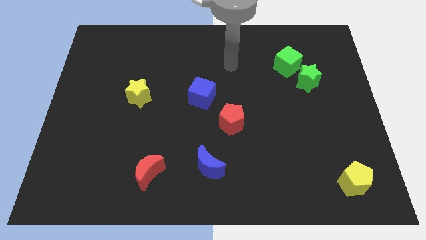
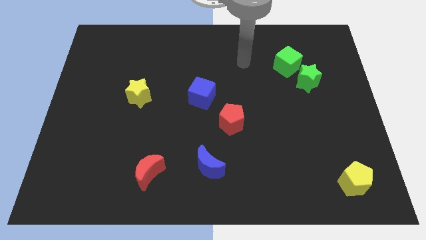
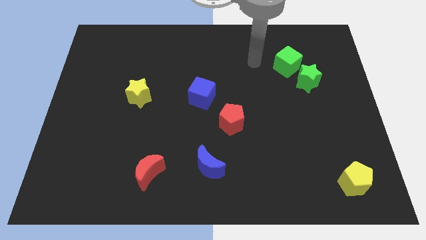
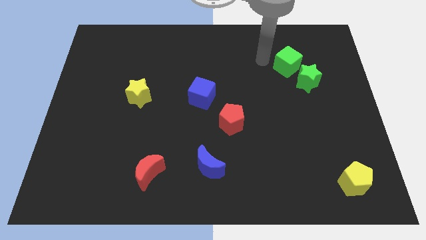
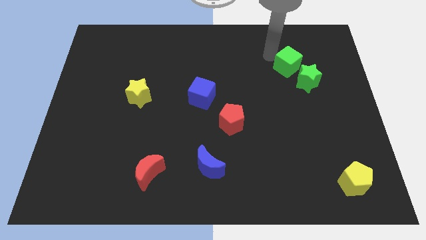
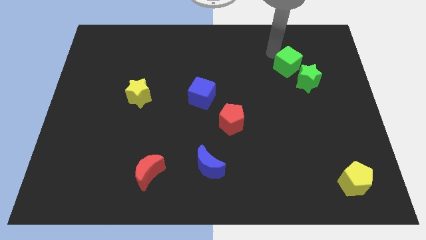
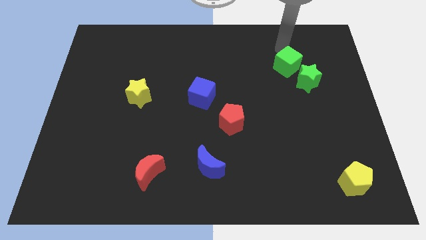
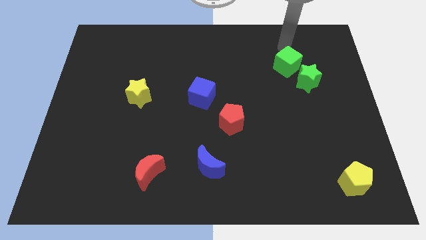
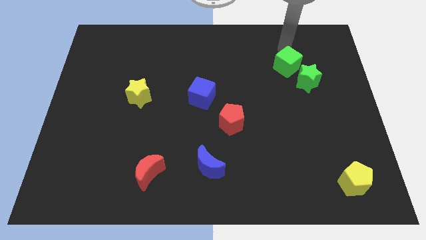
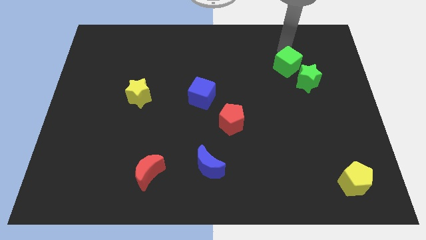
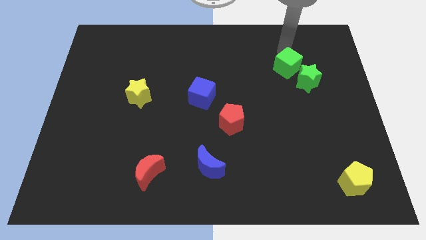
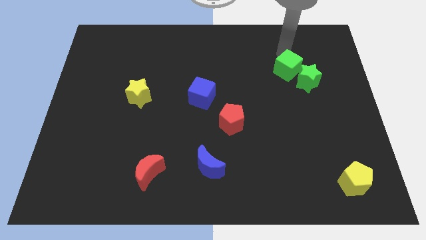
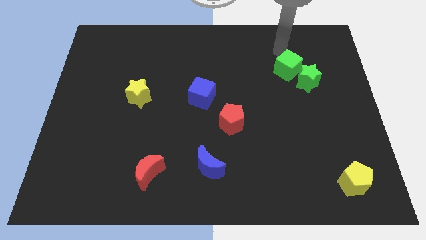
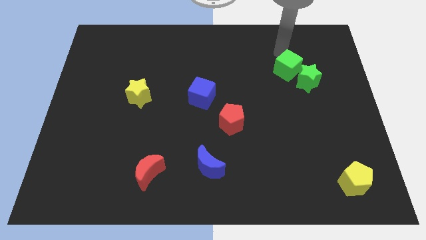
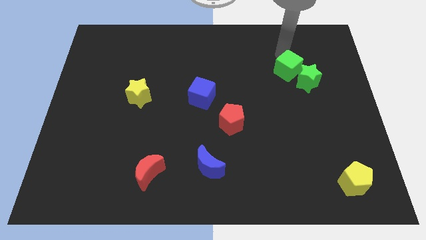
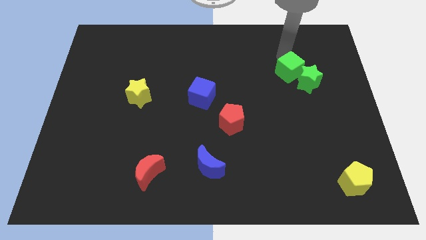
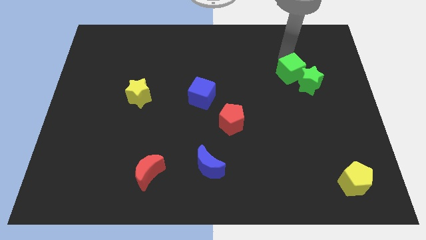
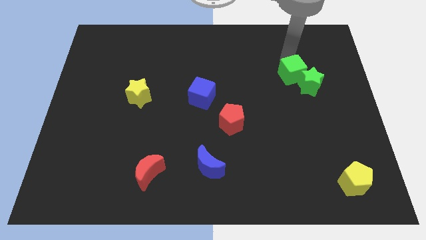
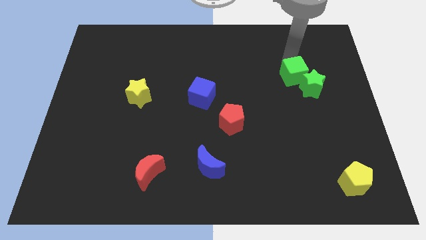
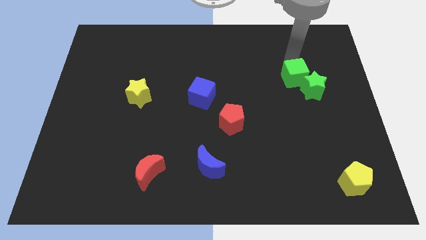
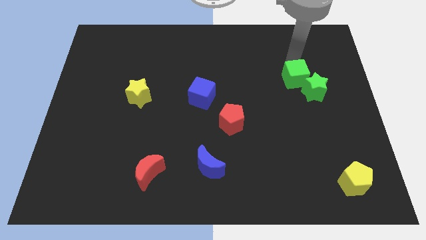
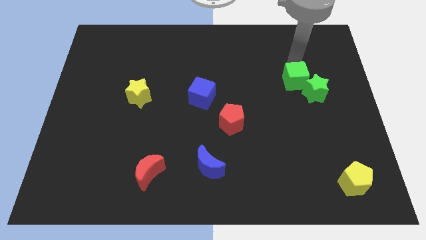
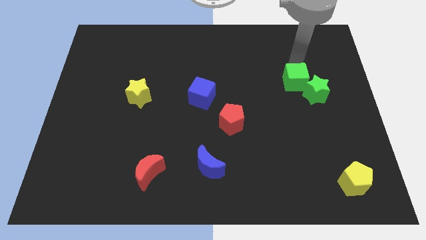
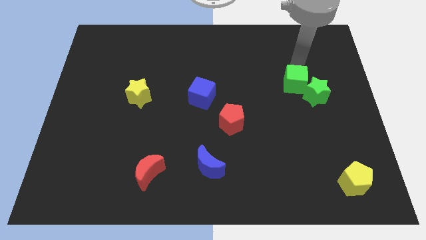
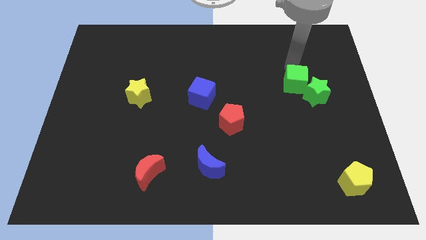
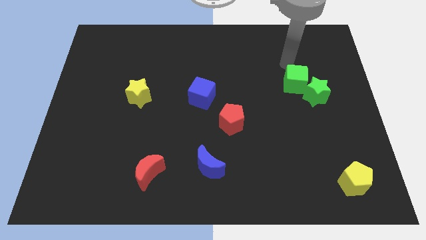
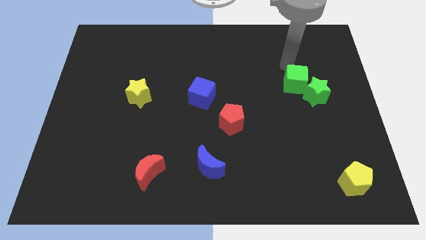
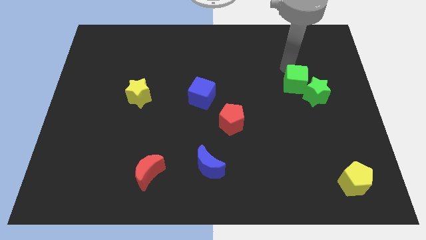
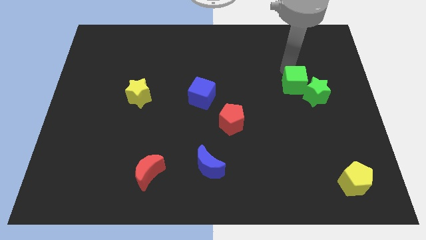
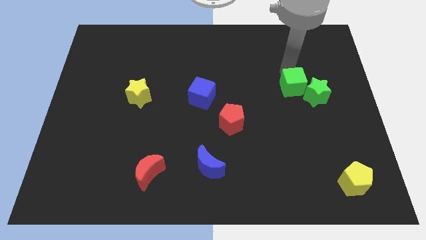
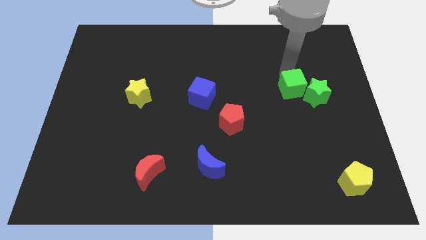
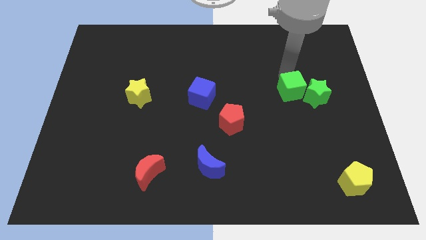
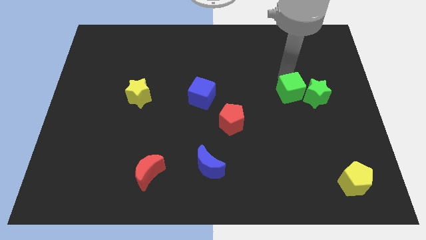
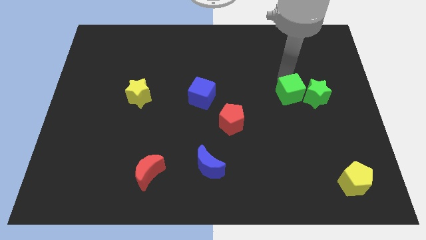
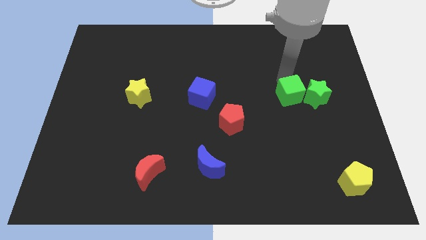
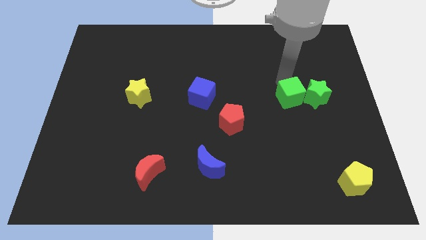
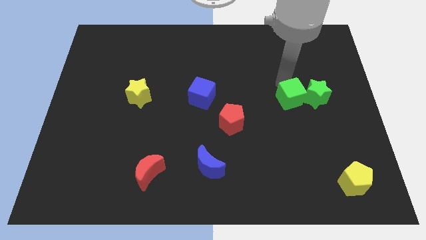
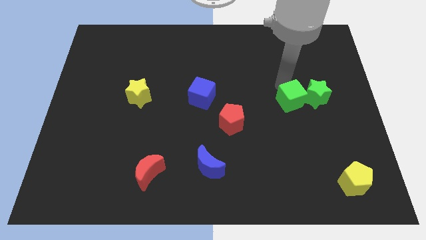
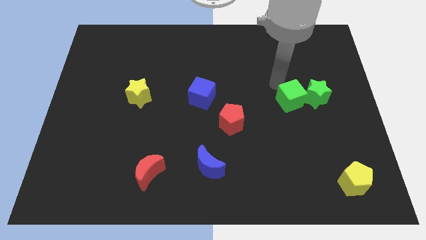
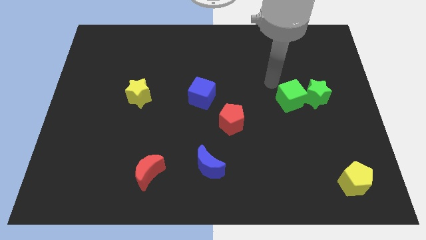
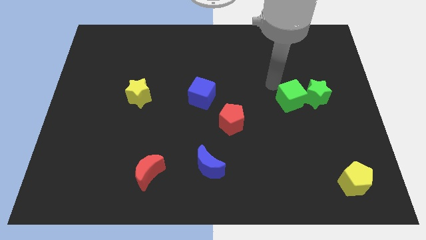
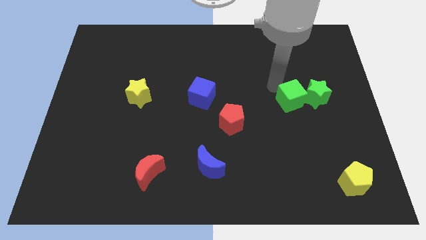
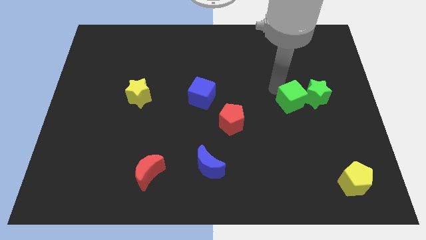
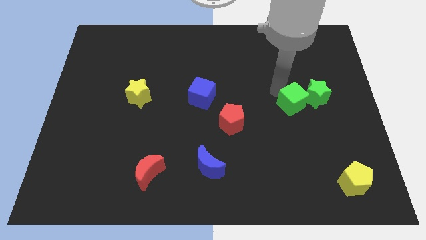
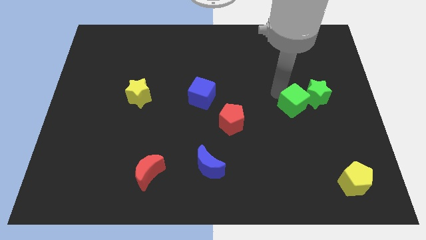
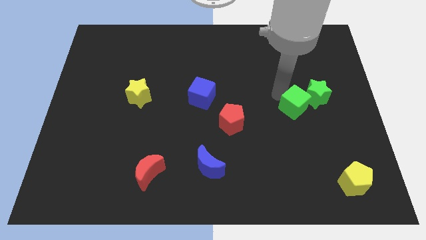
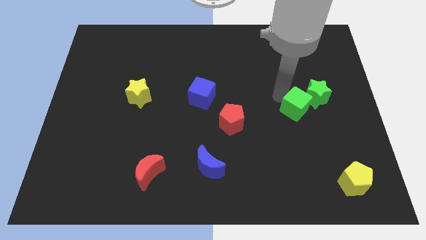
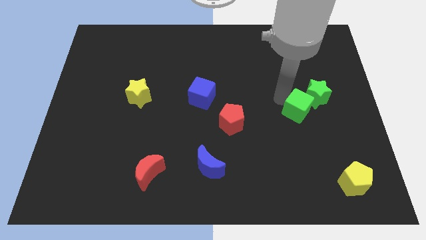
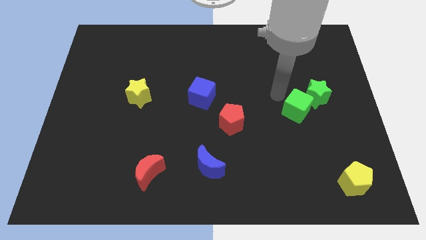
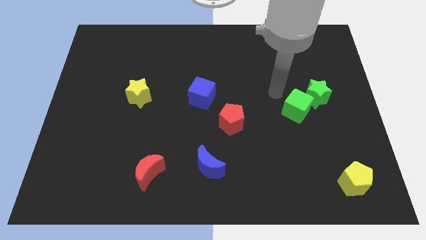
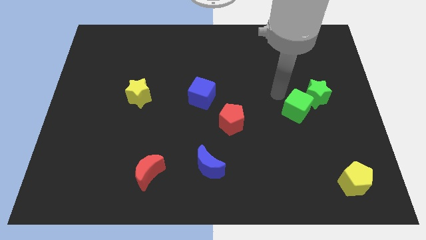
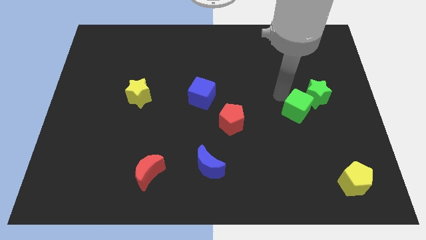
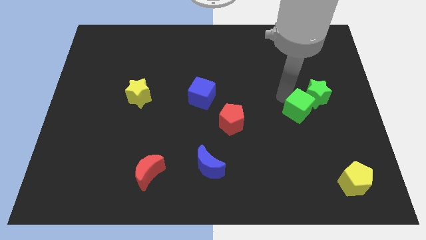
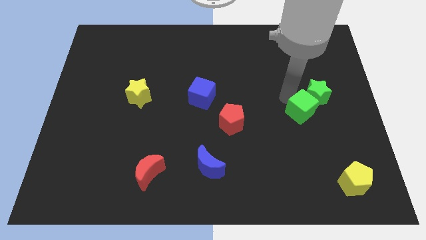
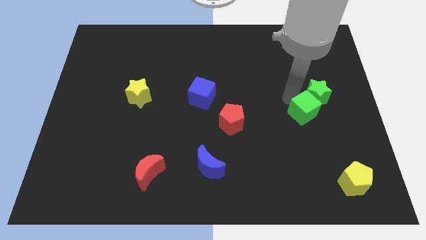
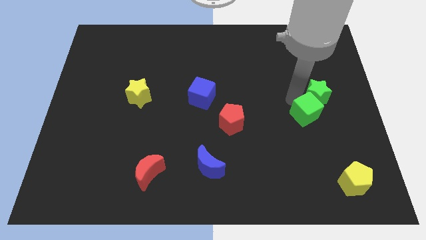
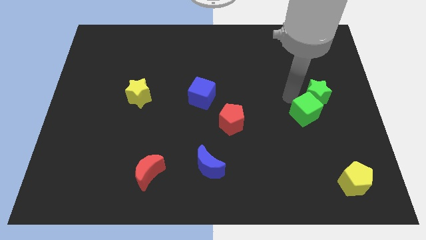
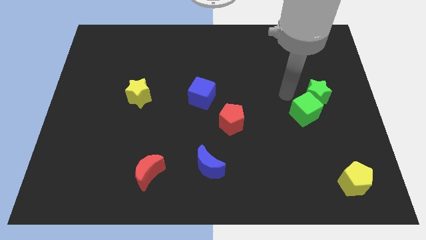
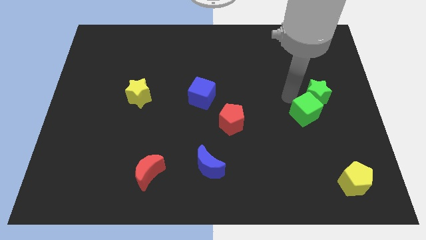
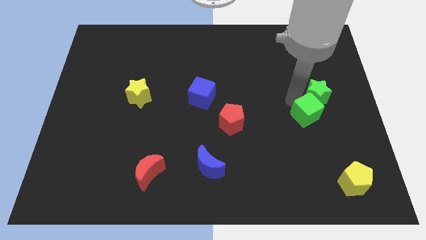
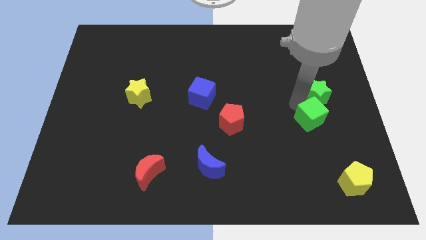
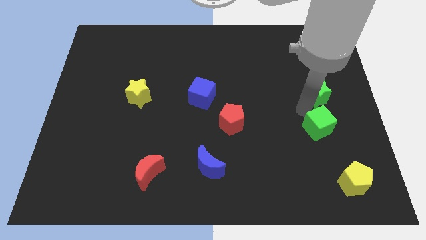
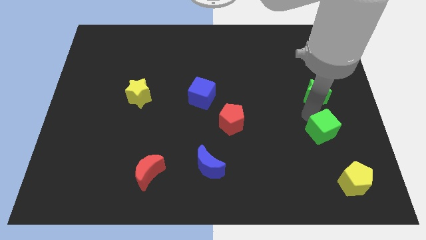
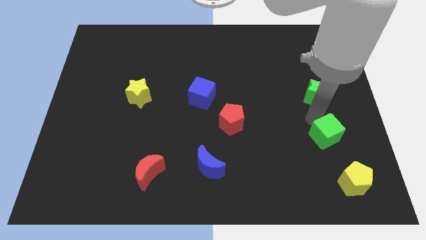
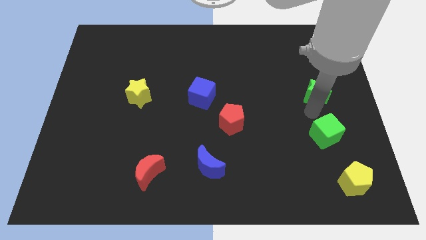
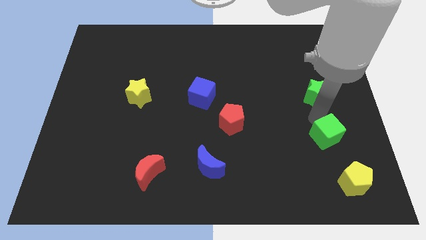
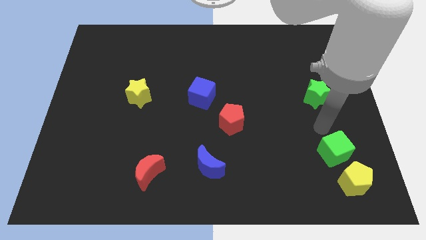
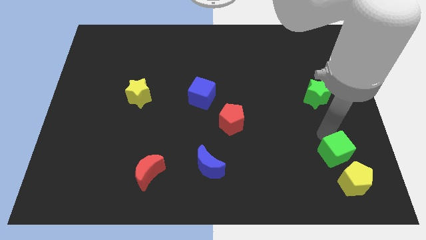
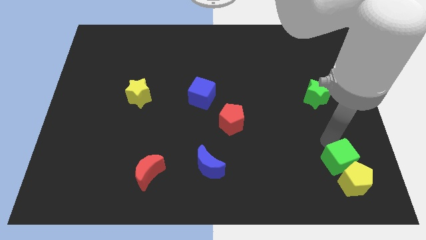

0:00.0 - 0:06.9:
push the green cube close to the yellow pentagon
